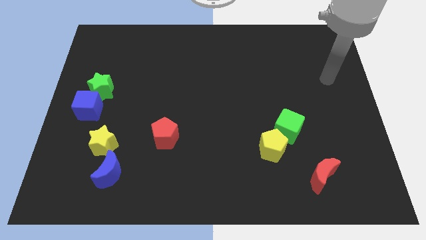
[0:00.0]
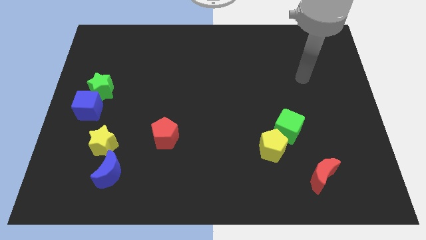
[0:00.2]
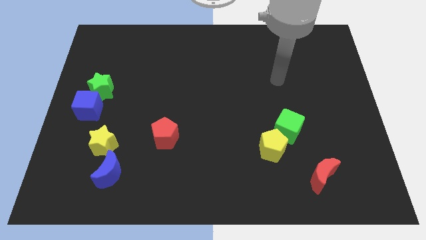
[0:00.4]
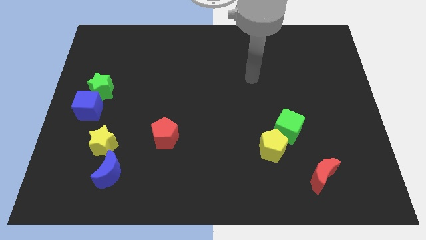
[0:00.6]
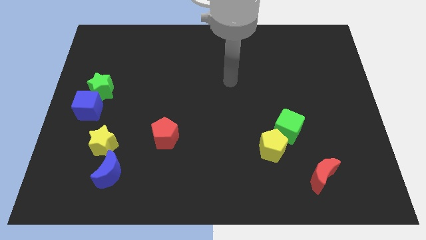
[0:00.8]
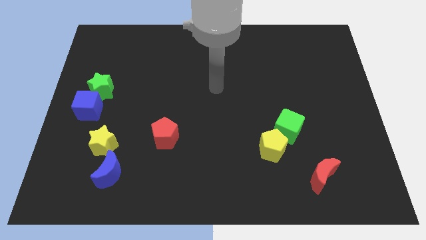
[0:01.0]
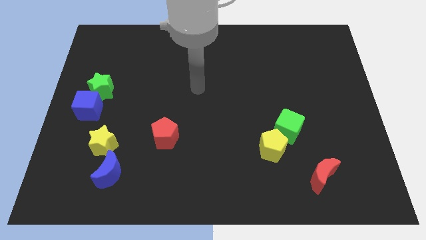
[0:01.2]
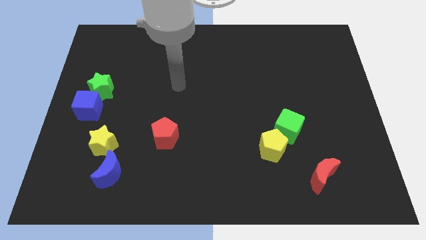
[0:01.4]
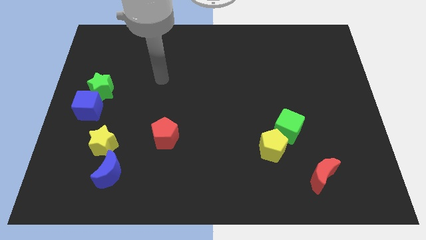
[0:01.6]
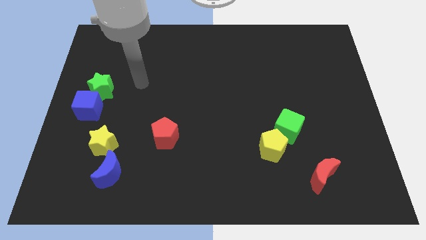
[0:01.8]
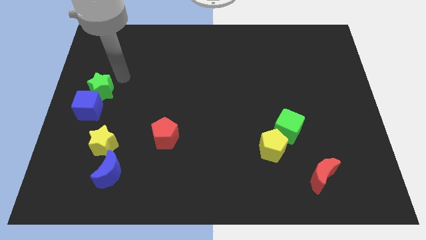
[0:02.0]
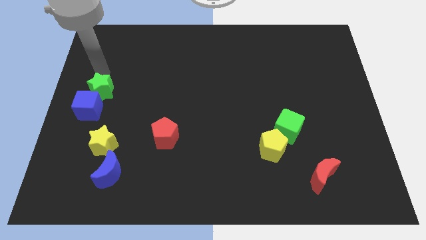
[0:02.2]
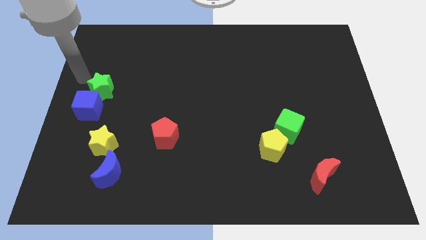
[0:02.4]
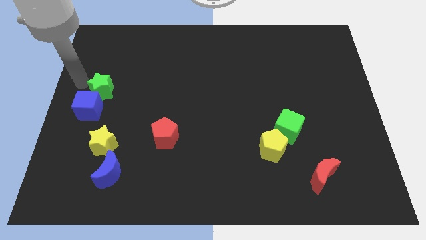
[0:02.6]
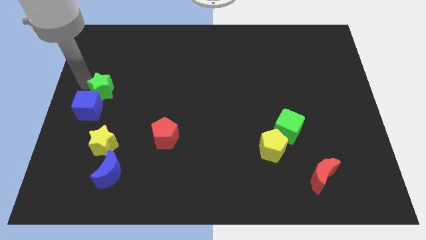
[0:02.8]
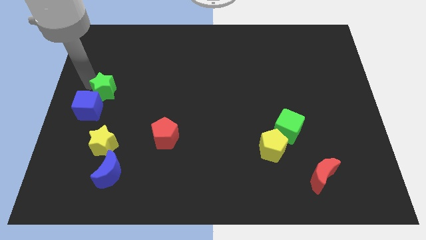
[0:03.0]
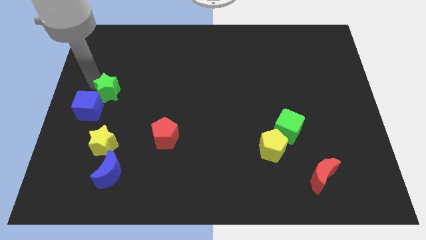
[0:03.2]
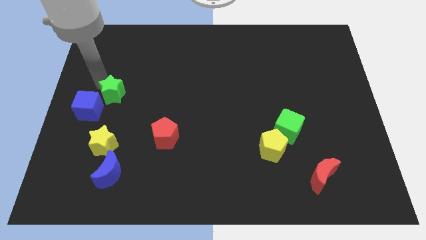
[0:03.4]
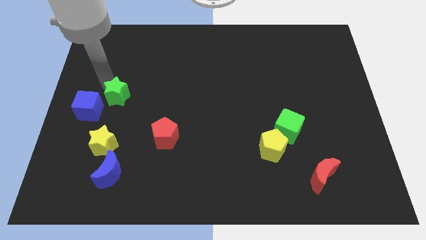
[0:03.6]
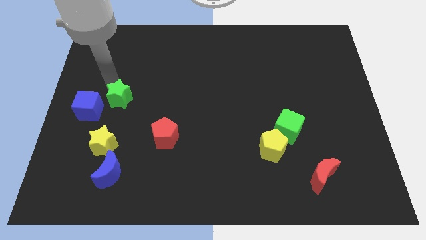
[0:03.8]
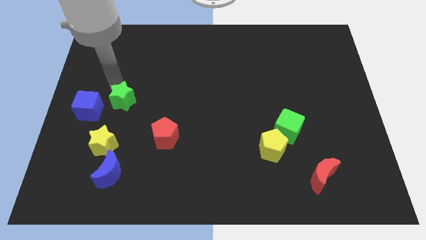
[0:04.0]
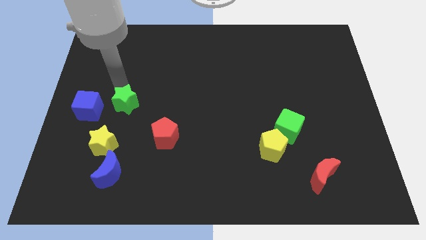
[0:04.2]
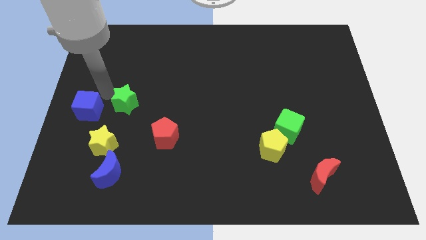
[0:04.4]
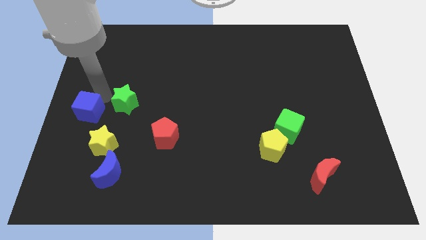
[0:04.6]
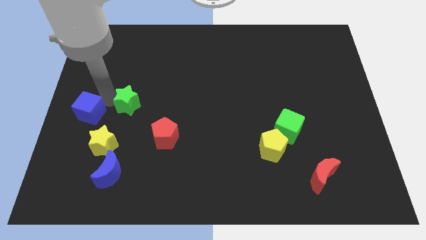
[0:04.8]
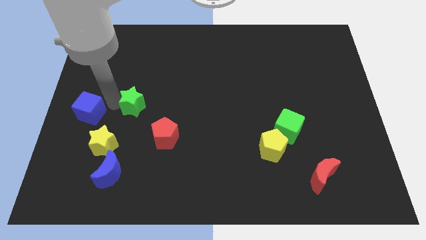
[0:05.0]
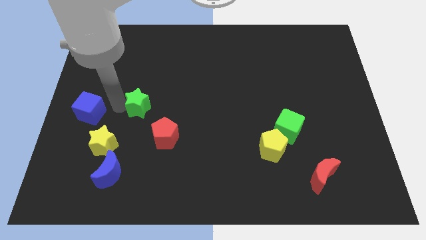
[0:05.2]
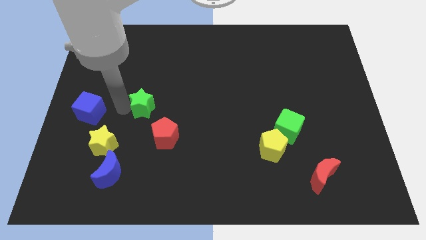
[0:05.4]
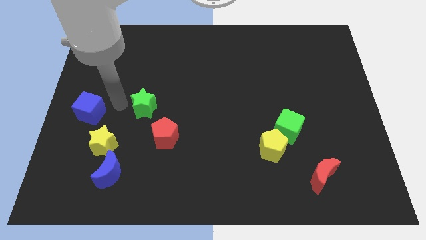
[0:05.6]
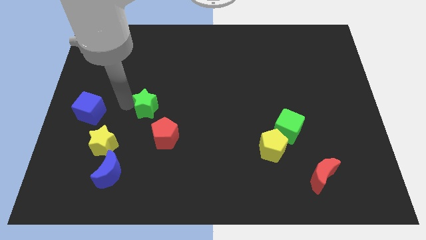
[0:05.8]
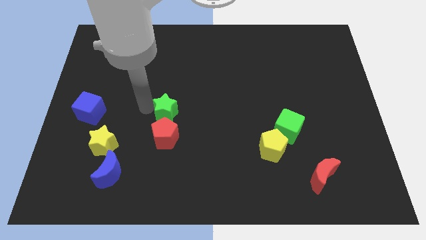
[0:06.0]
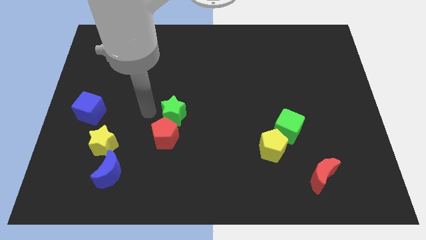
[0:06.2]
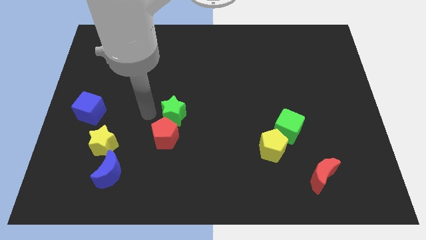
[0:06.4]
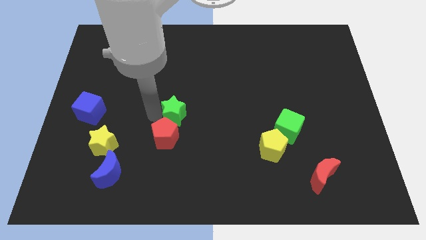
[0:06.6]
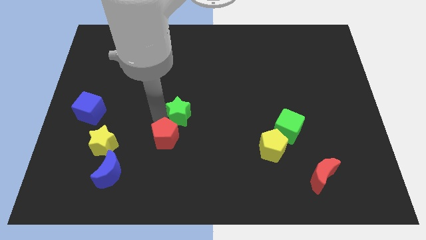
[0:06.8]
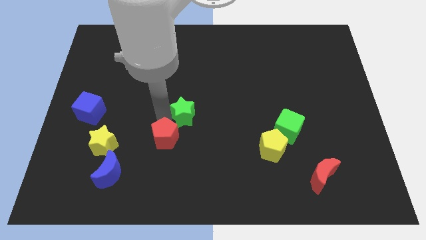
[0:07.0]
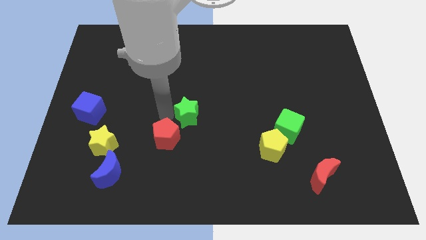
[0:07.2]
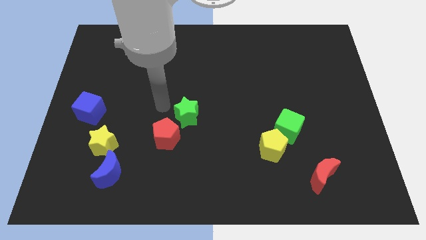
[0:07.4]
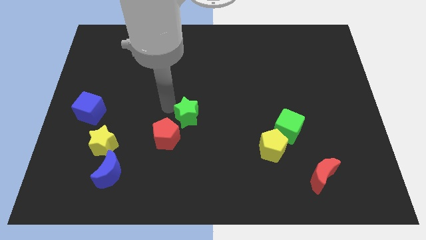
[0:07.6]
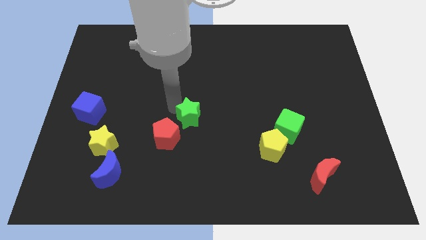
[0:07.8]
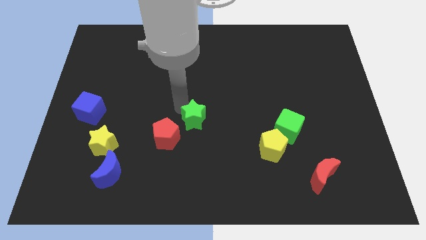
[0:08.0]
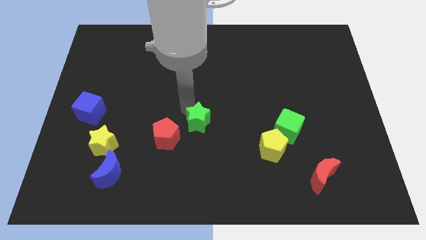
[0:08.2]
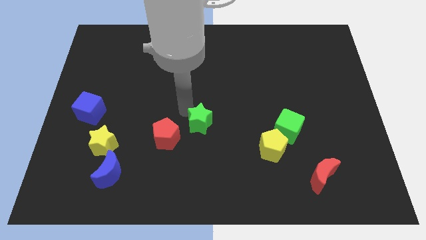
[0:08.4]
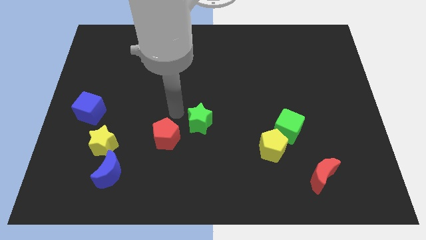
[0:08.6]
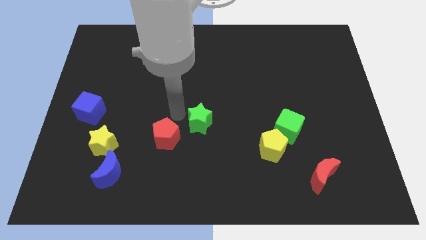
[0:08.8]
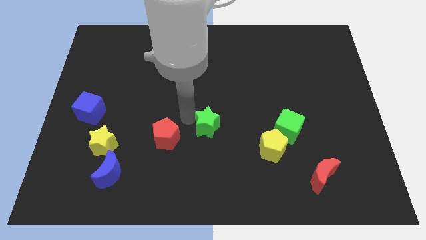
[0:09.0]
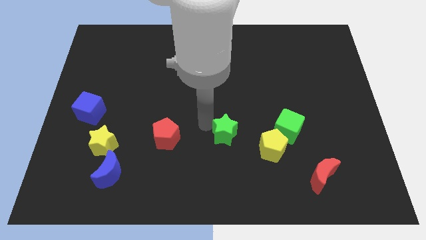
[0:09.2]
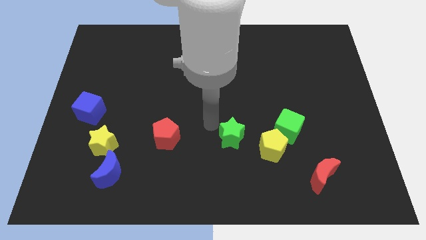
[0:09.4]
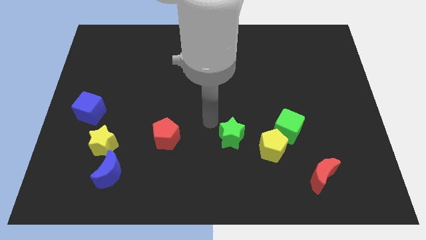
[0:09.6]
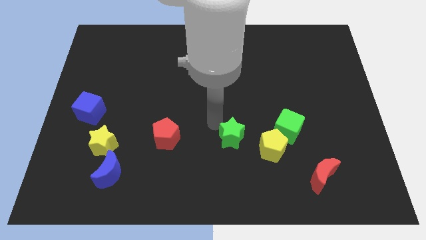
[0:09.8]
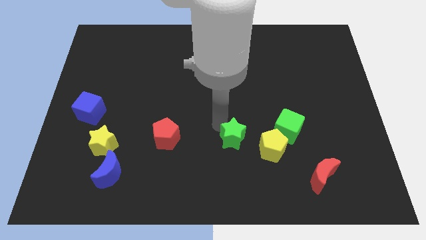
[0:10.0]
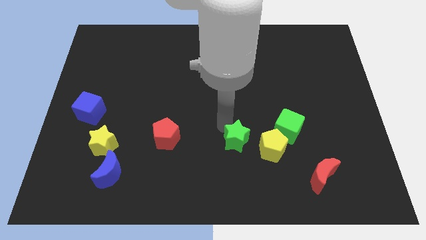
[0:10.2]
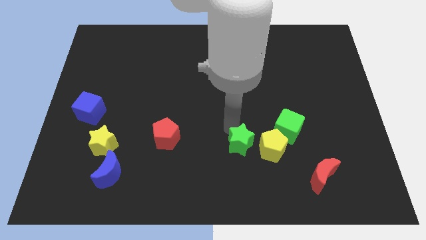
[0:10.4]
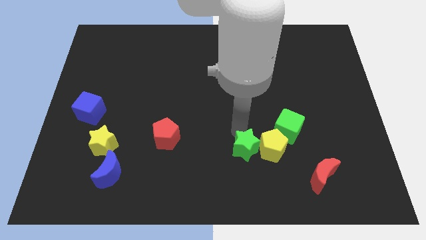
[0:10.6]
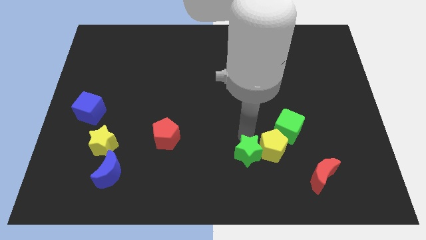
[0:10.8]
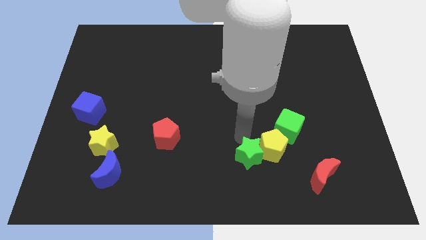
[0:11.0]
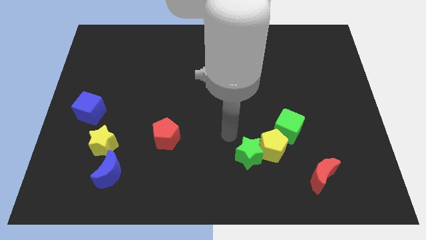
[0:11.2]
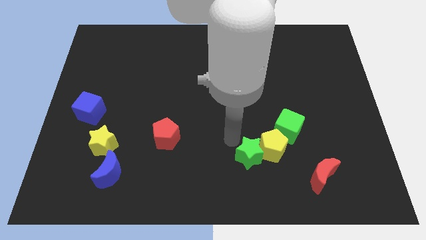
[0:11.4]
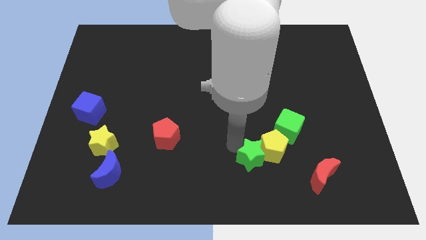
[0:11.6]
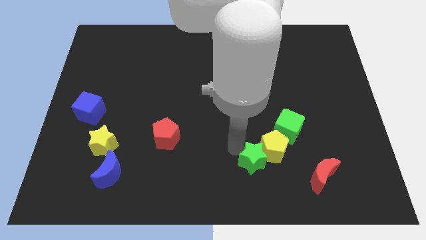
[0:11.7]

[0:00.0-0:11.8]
slide the green star to the left side of the red moon

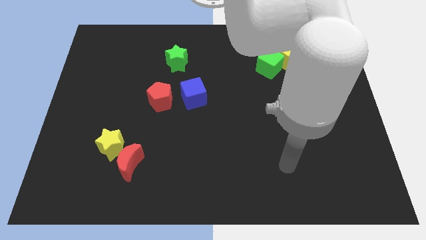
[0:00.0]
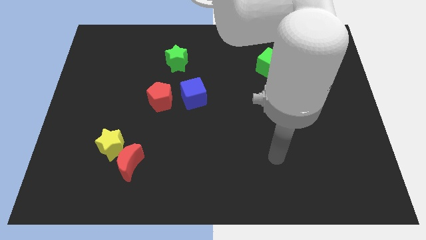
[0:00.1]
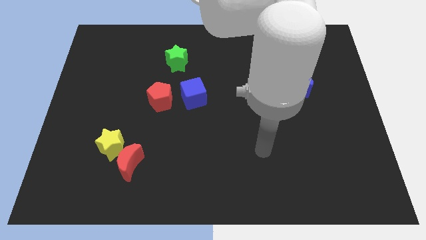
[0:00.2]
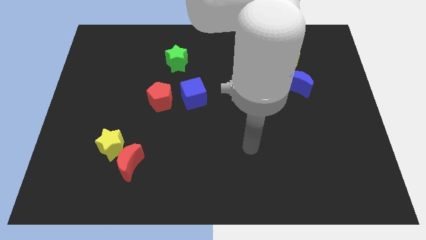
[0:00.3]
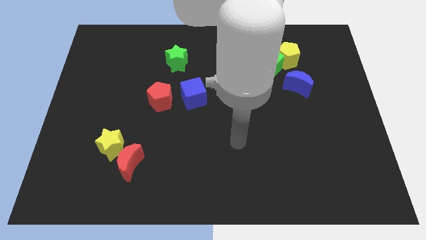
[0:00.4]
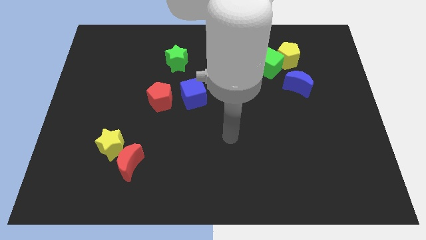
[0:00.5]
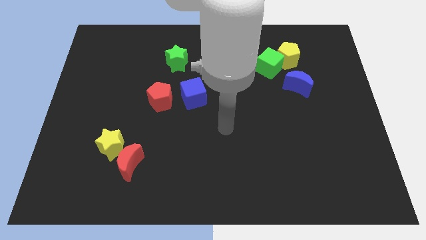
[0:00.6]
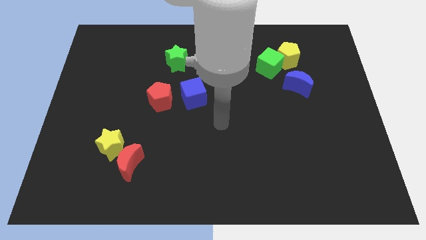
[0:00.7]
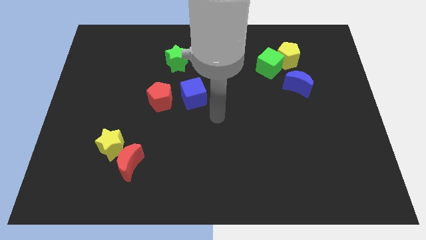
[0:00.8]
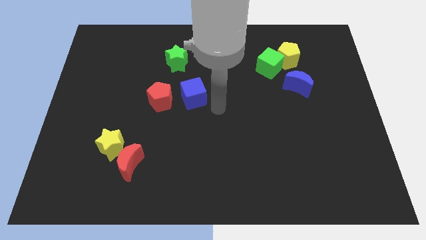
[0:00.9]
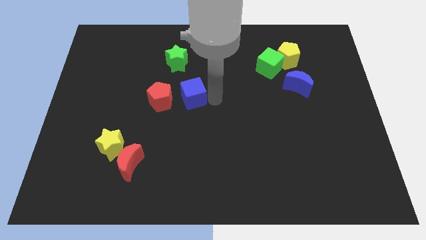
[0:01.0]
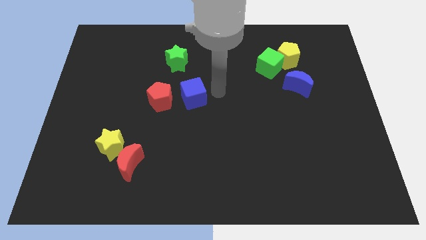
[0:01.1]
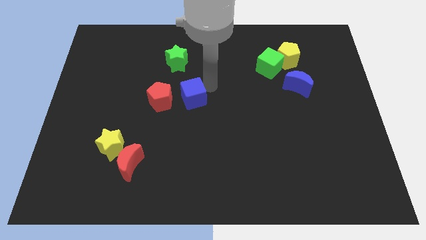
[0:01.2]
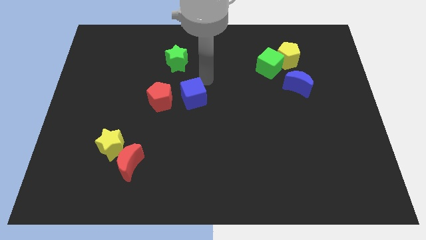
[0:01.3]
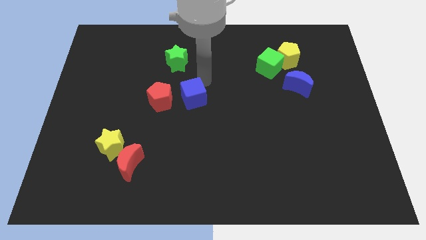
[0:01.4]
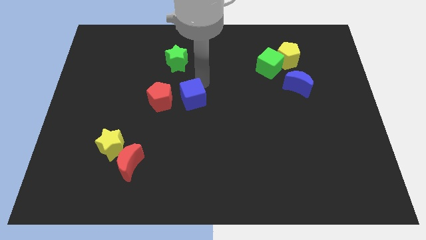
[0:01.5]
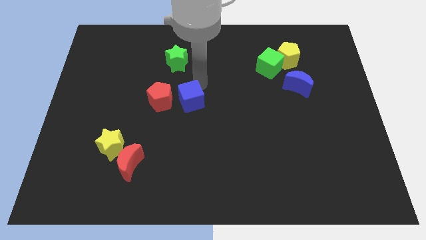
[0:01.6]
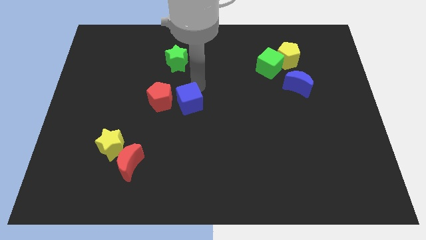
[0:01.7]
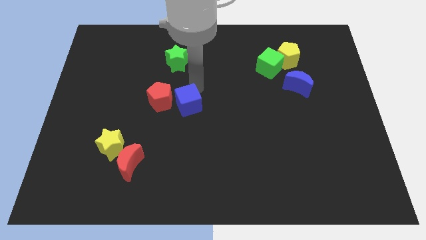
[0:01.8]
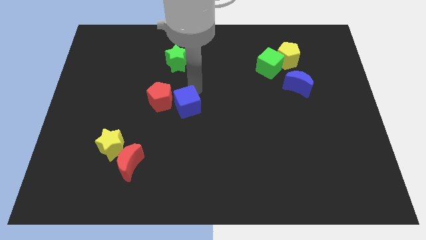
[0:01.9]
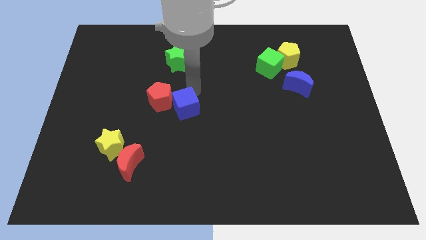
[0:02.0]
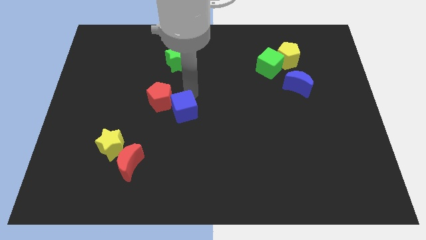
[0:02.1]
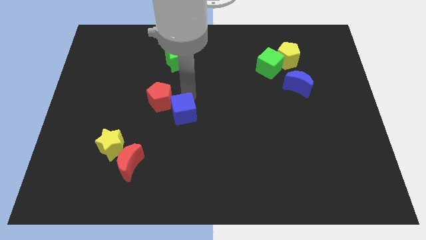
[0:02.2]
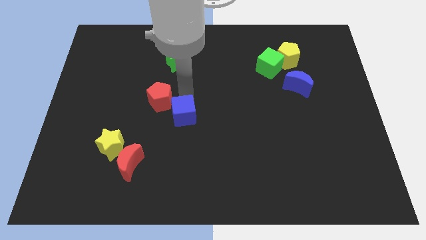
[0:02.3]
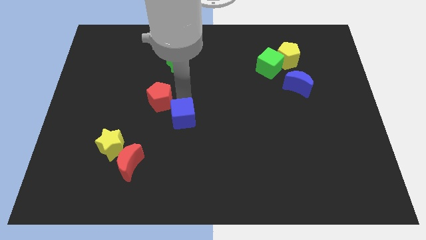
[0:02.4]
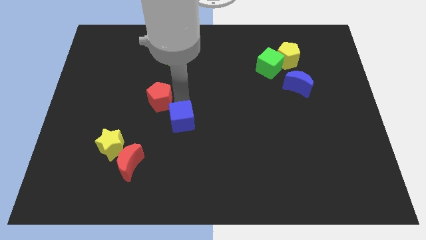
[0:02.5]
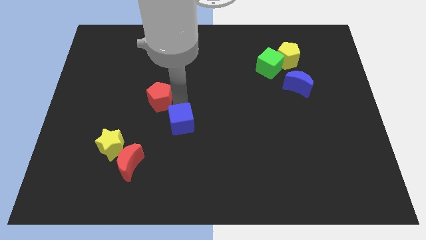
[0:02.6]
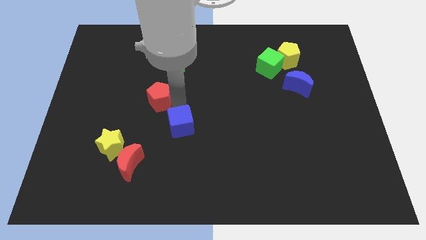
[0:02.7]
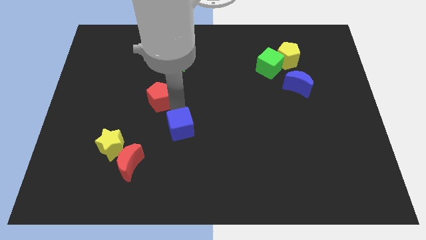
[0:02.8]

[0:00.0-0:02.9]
push the blue cube to the bottom of the red pentagon
